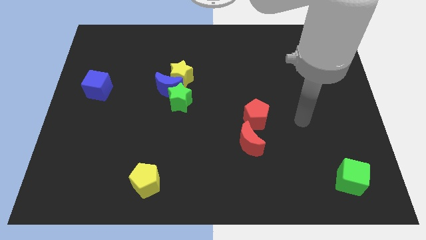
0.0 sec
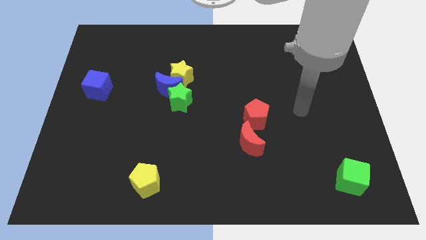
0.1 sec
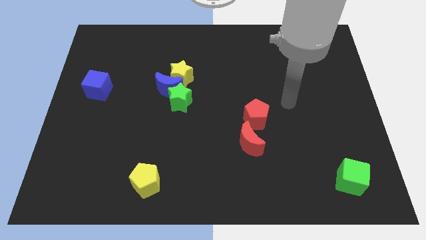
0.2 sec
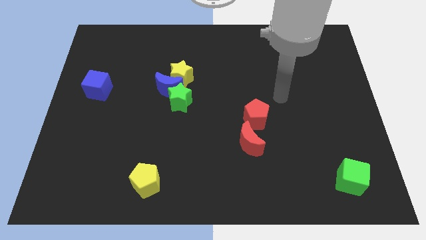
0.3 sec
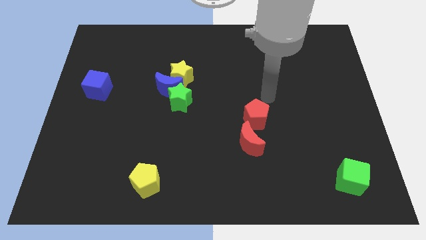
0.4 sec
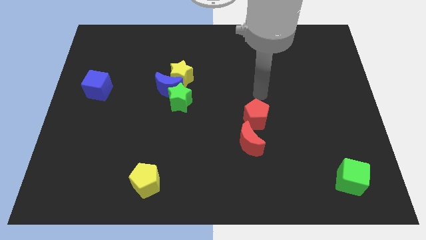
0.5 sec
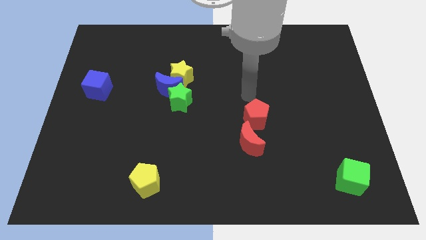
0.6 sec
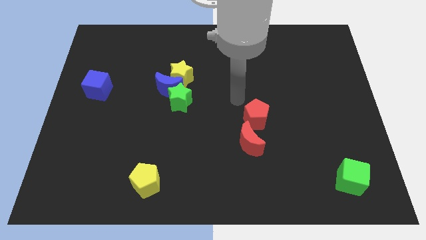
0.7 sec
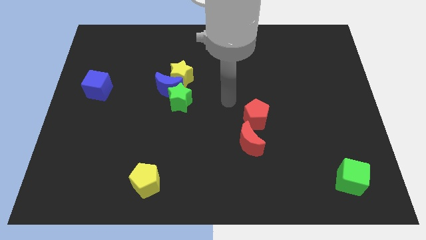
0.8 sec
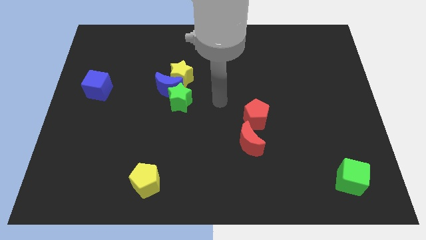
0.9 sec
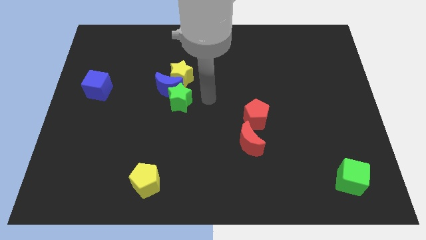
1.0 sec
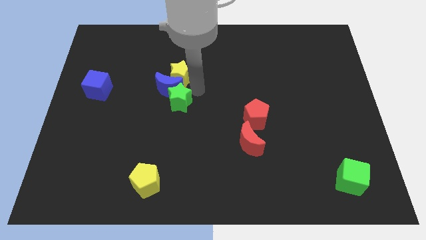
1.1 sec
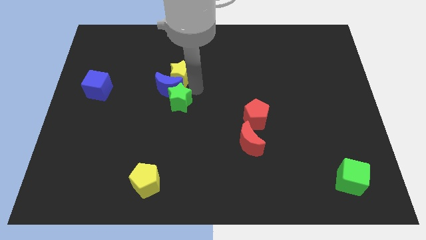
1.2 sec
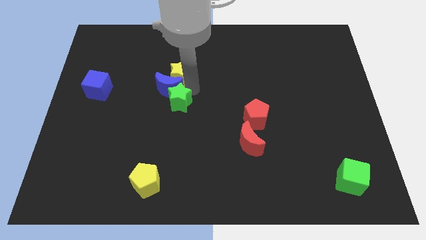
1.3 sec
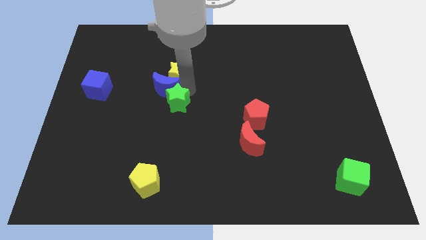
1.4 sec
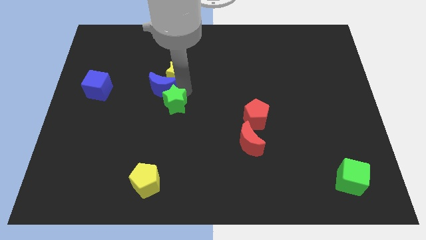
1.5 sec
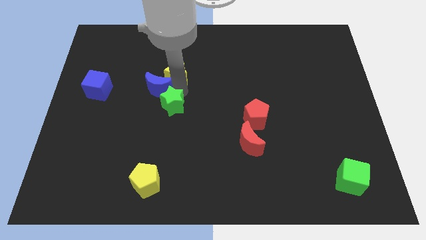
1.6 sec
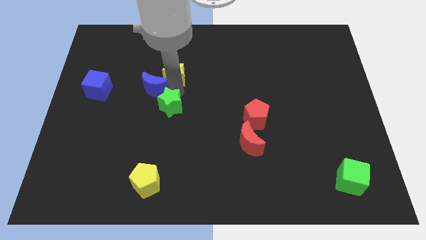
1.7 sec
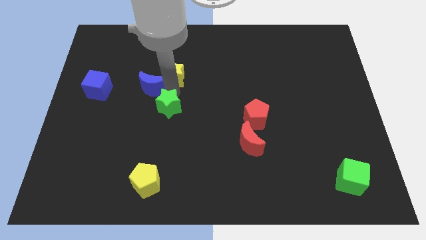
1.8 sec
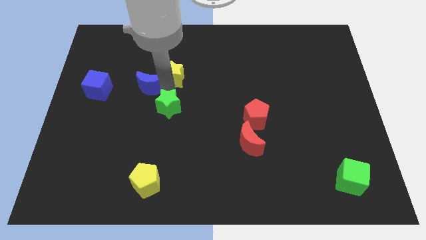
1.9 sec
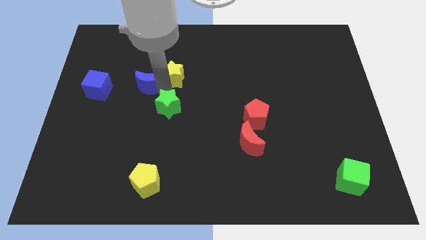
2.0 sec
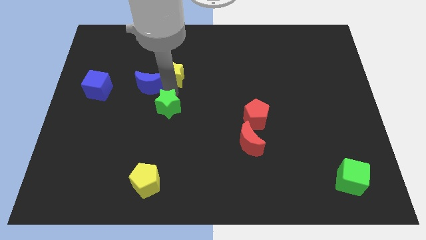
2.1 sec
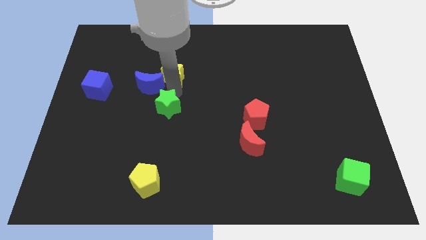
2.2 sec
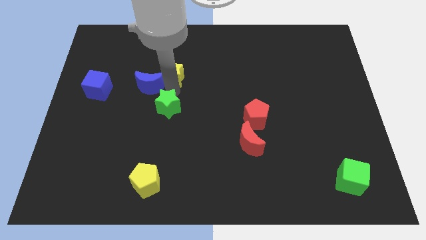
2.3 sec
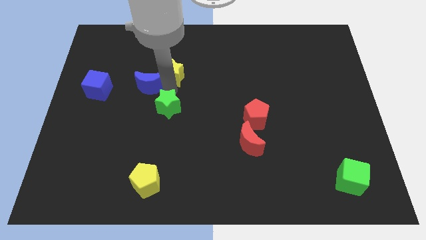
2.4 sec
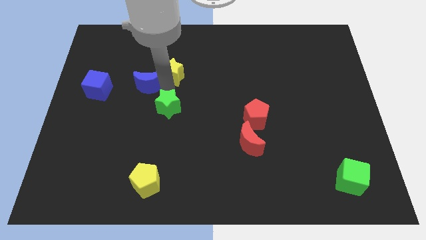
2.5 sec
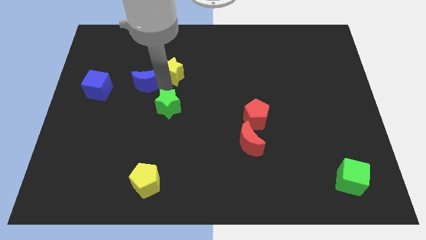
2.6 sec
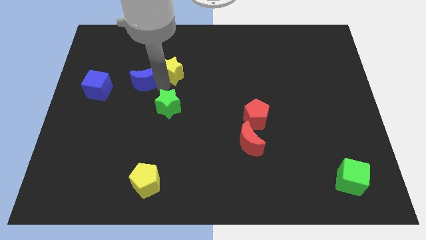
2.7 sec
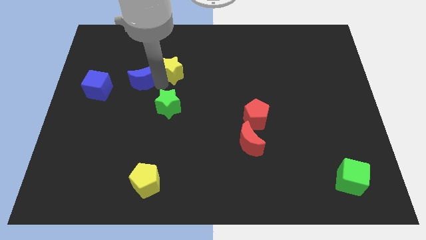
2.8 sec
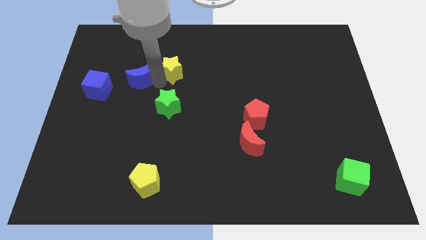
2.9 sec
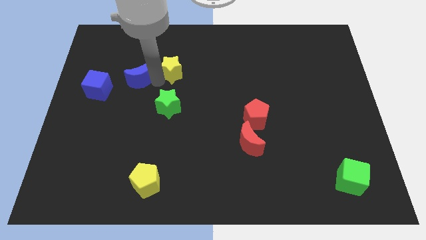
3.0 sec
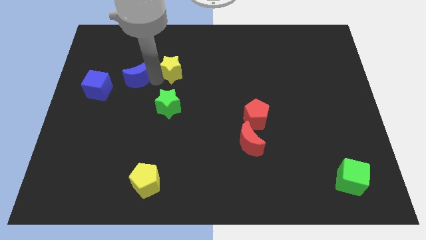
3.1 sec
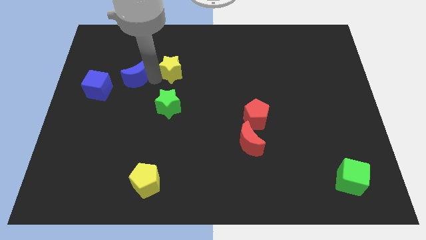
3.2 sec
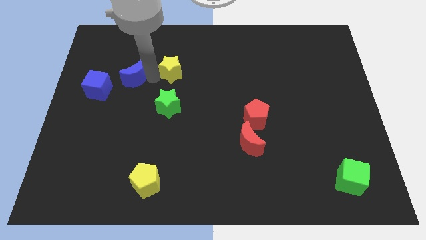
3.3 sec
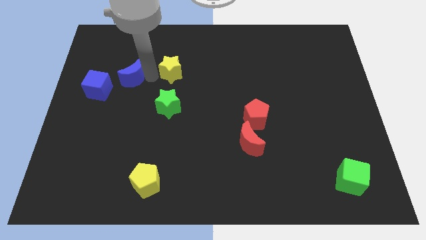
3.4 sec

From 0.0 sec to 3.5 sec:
separate the blue moon from the yellow star and green star

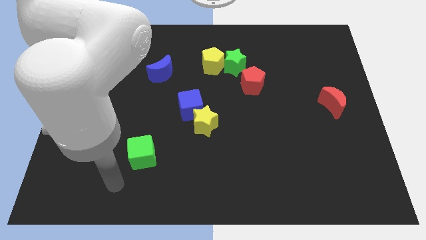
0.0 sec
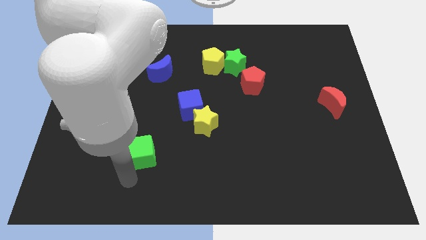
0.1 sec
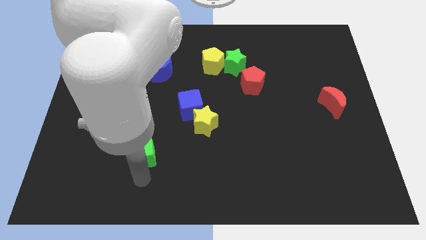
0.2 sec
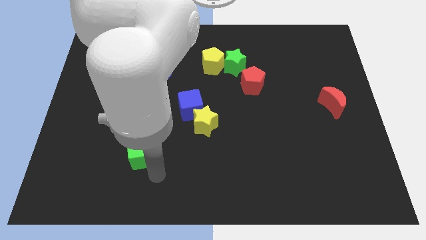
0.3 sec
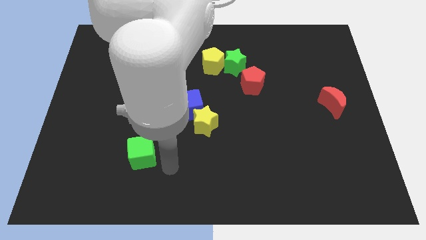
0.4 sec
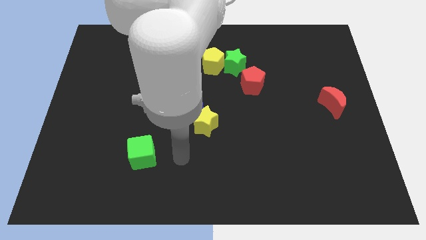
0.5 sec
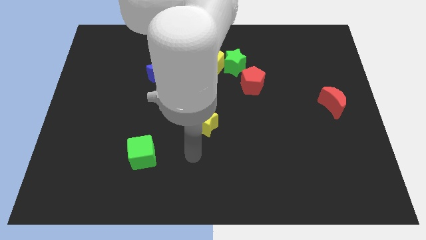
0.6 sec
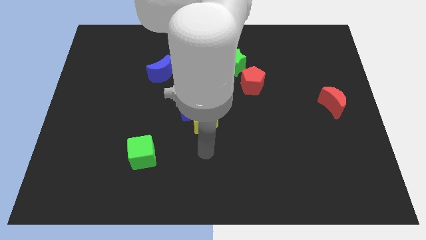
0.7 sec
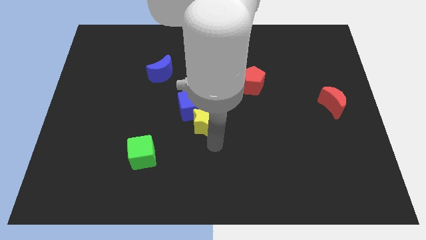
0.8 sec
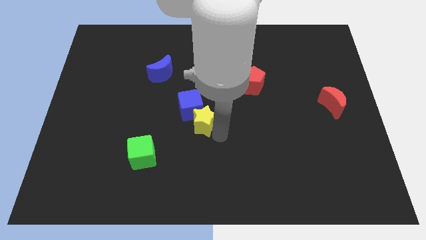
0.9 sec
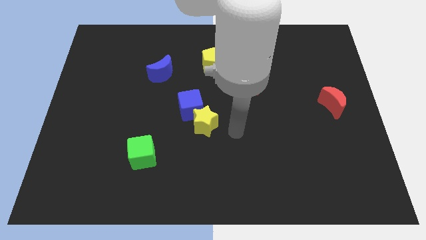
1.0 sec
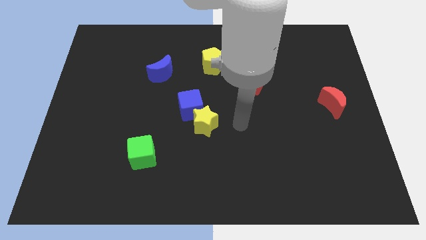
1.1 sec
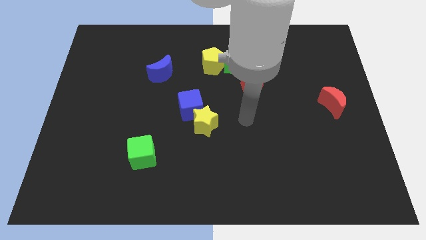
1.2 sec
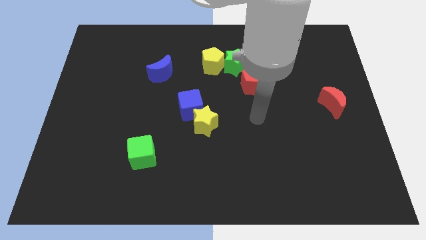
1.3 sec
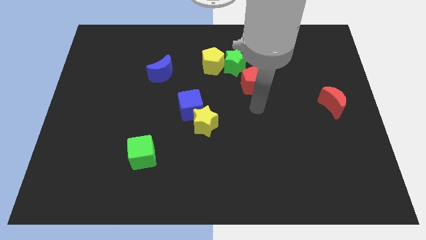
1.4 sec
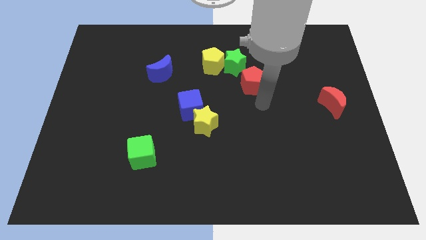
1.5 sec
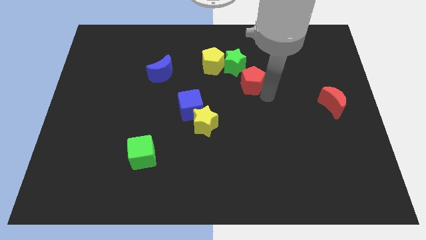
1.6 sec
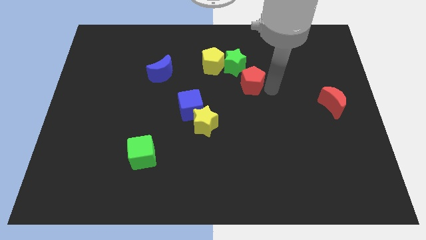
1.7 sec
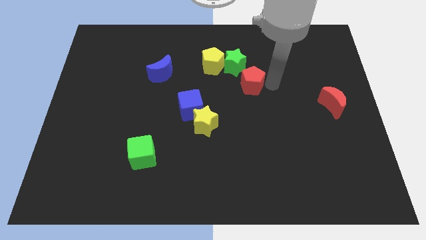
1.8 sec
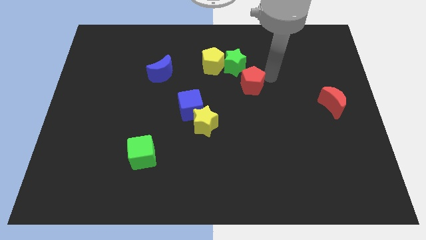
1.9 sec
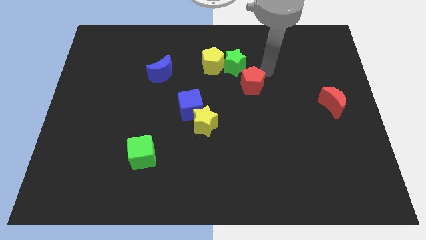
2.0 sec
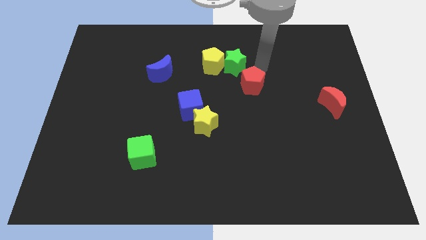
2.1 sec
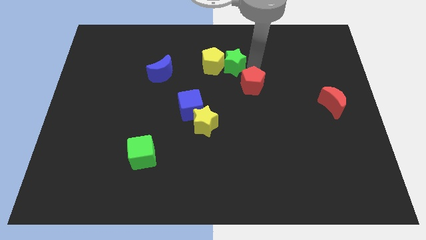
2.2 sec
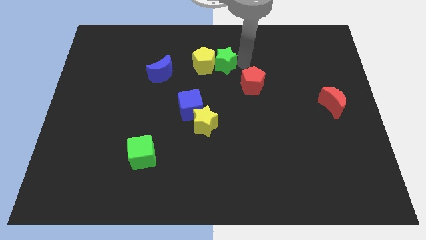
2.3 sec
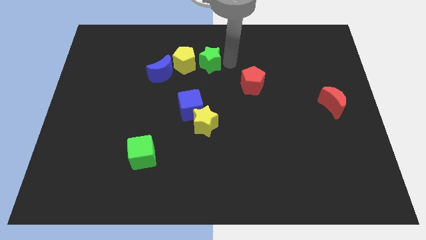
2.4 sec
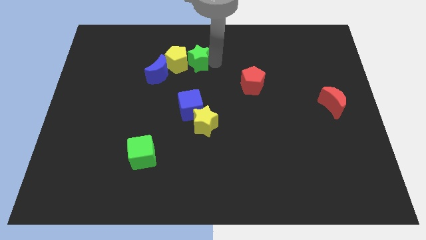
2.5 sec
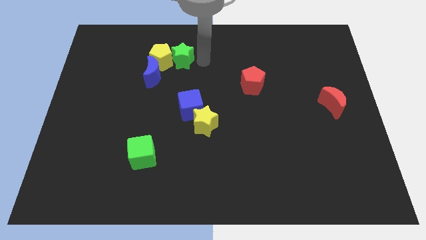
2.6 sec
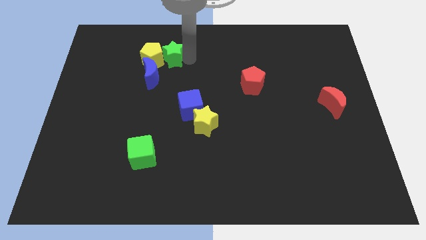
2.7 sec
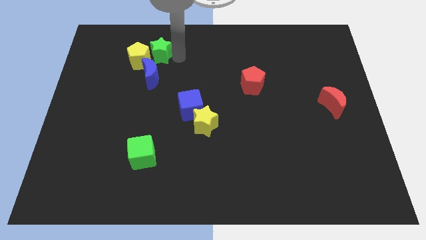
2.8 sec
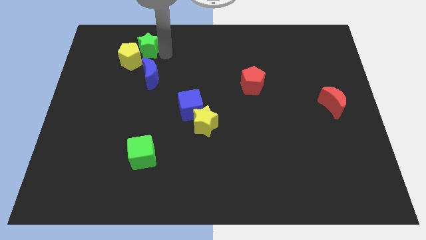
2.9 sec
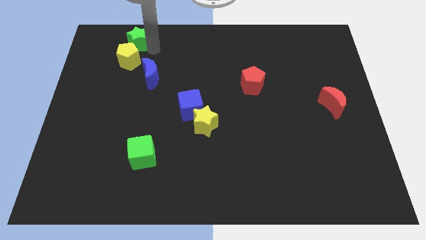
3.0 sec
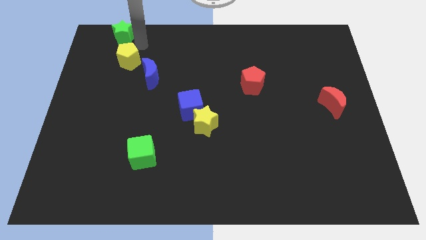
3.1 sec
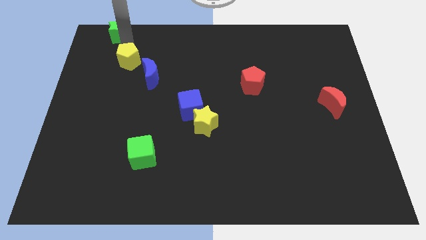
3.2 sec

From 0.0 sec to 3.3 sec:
pull the yellow pentagon apart from the green star

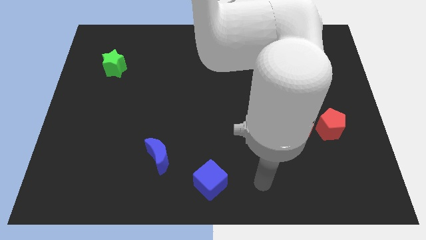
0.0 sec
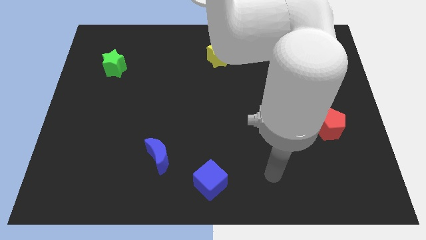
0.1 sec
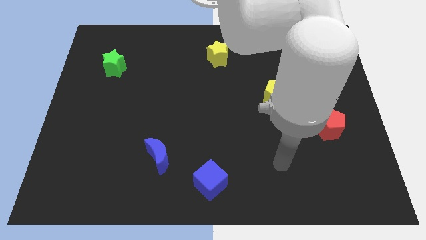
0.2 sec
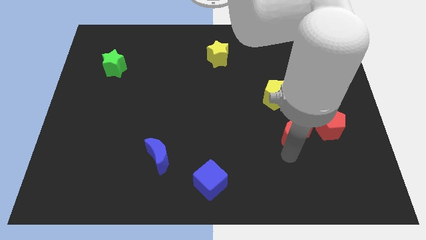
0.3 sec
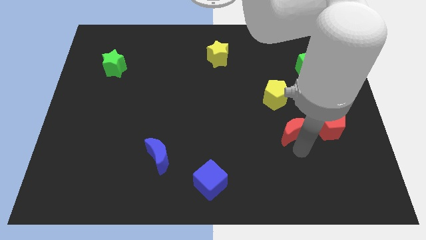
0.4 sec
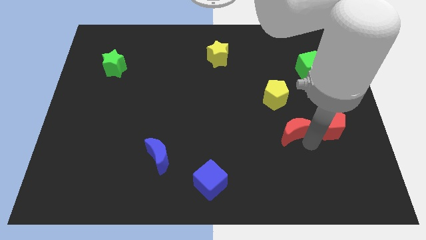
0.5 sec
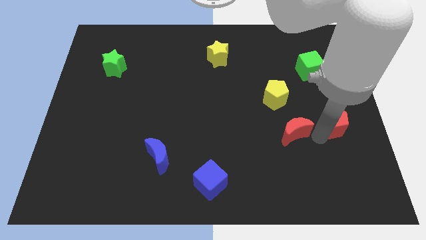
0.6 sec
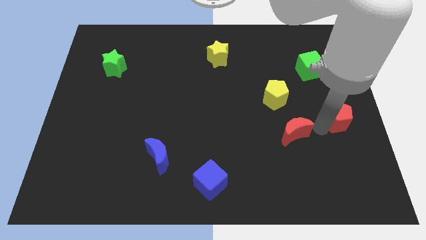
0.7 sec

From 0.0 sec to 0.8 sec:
pull the red moon apart from the red pentagon

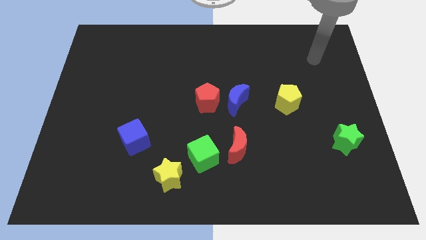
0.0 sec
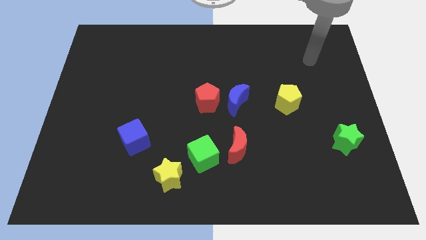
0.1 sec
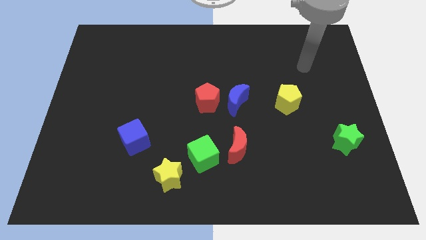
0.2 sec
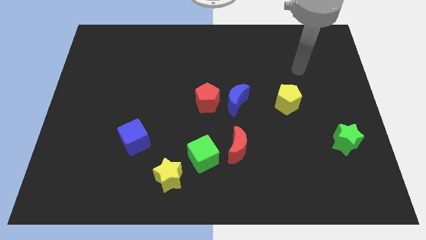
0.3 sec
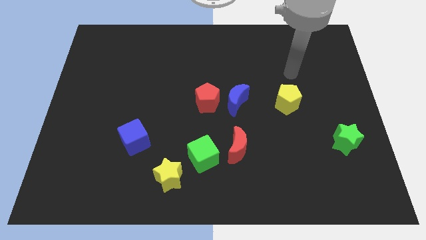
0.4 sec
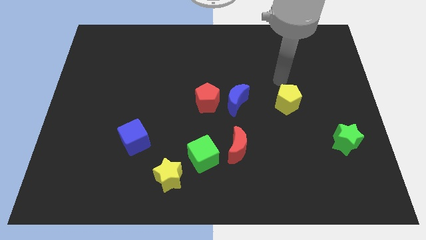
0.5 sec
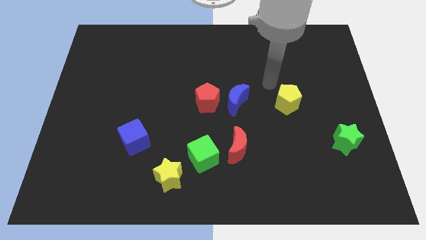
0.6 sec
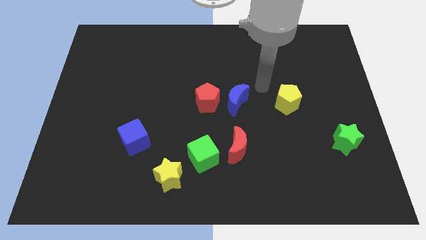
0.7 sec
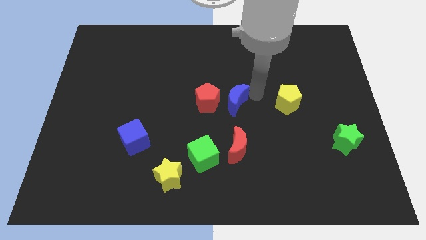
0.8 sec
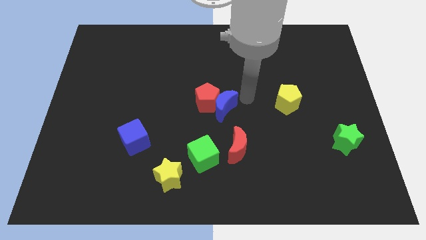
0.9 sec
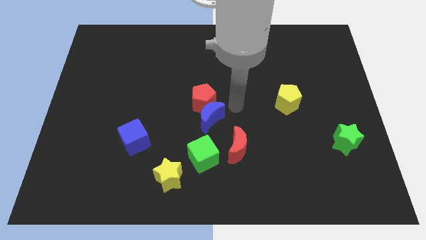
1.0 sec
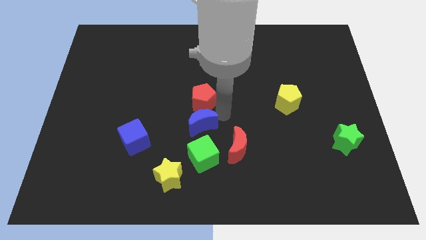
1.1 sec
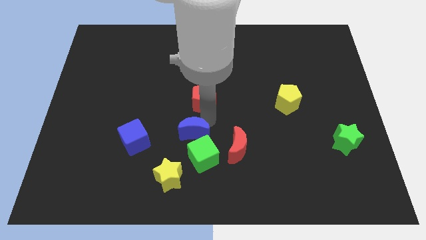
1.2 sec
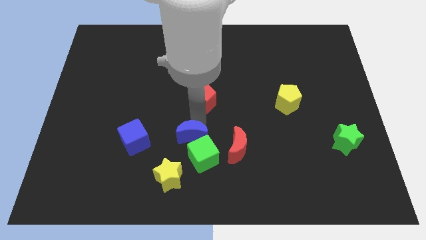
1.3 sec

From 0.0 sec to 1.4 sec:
pull the red pentagon apart from the blue moon

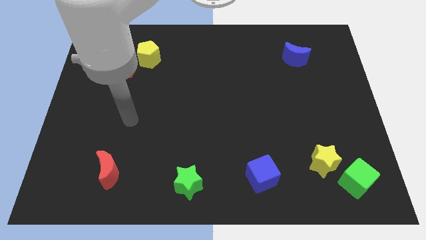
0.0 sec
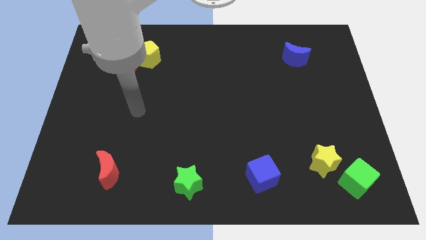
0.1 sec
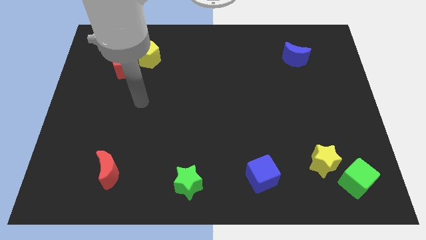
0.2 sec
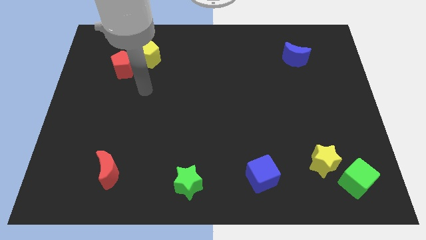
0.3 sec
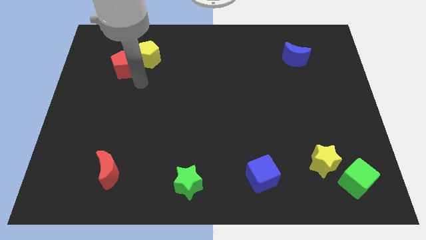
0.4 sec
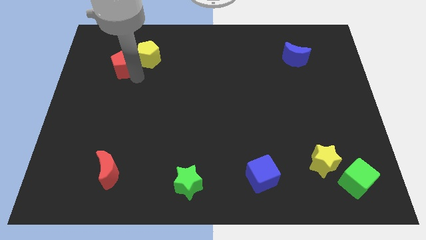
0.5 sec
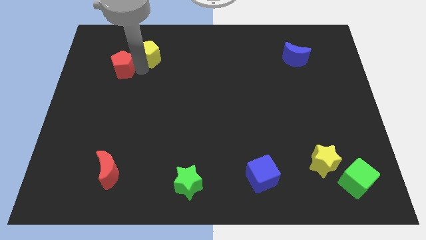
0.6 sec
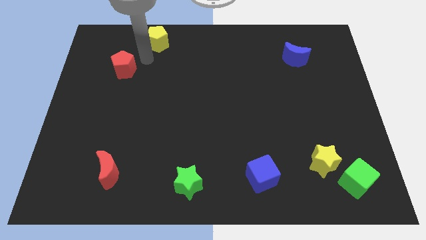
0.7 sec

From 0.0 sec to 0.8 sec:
separate the red pentagon from the yellow pentagon
